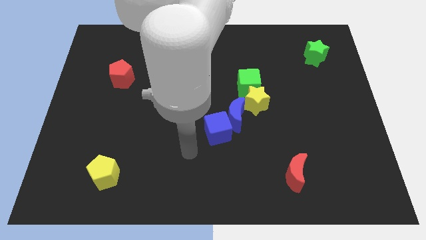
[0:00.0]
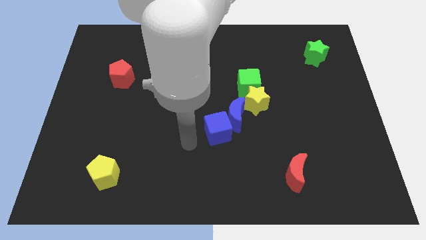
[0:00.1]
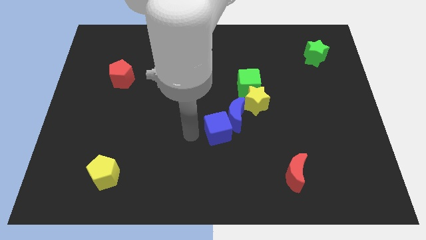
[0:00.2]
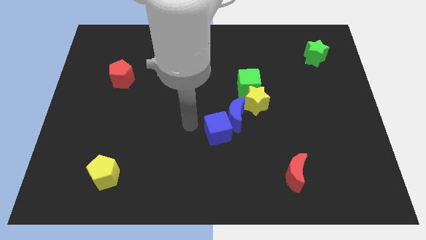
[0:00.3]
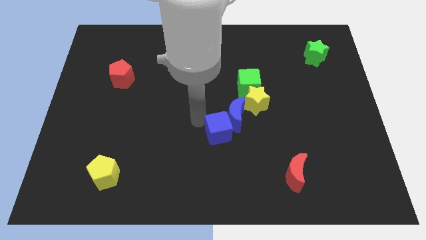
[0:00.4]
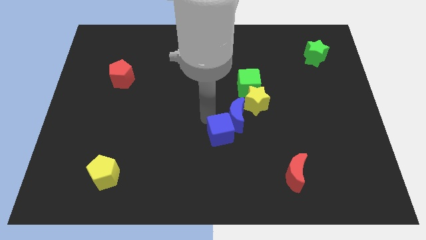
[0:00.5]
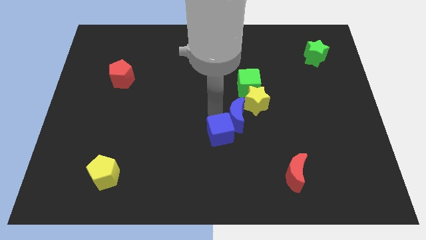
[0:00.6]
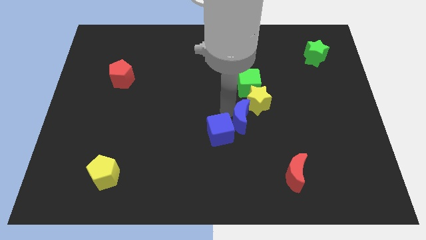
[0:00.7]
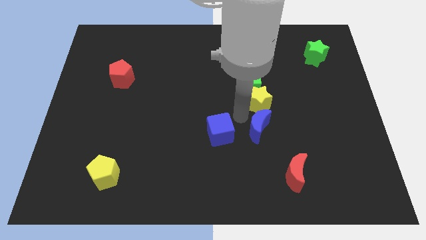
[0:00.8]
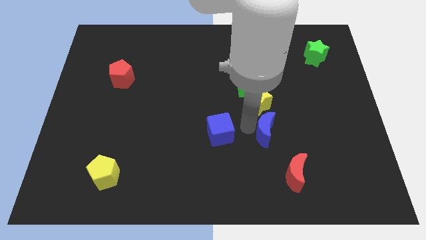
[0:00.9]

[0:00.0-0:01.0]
pull the blue cube apart from the blue moon

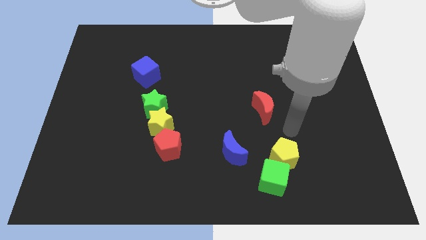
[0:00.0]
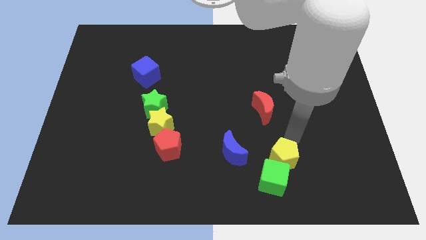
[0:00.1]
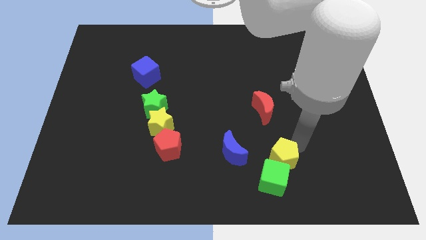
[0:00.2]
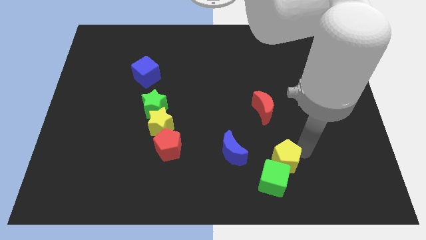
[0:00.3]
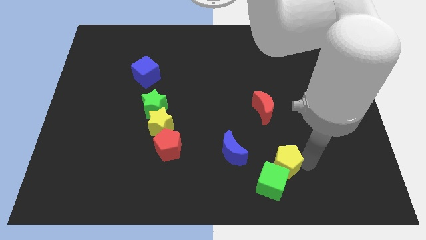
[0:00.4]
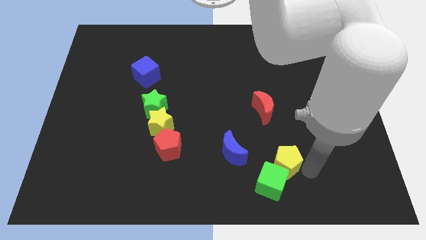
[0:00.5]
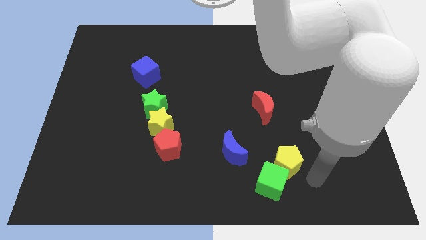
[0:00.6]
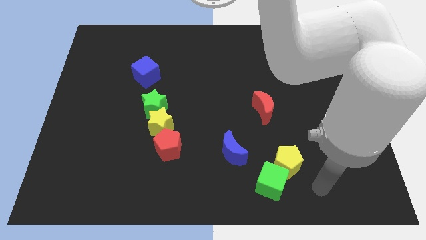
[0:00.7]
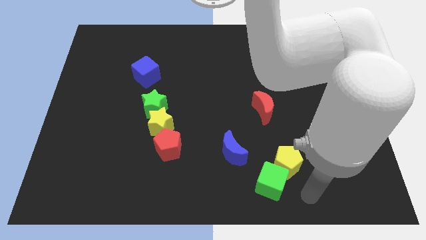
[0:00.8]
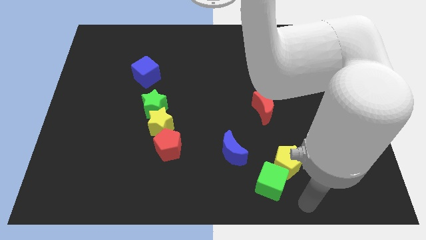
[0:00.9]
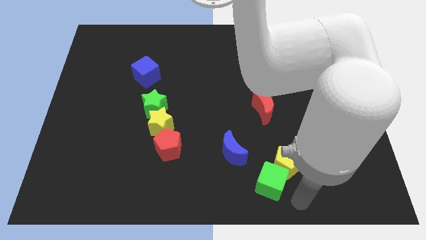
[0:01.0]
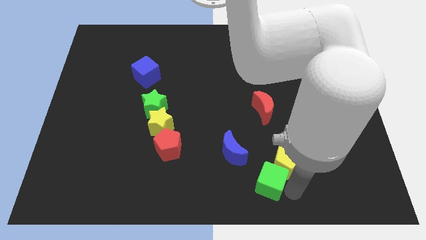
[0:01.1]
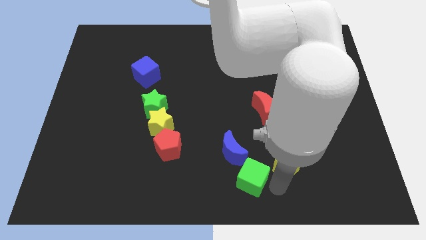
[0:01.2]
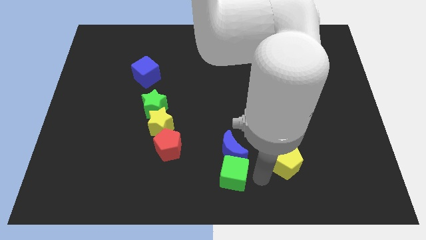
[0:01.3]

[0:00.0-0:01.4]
pull the yellow pentagon apart from the green cube

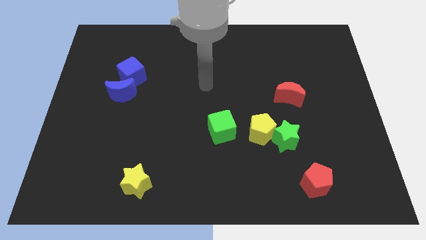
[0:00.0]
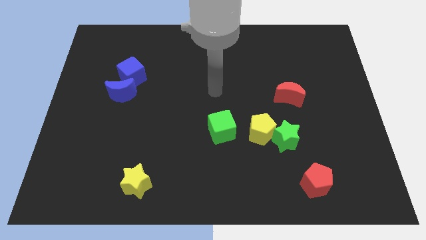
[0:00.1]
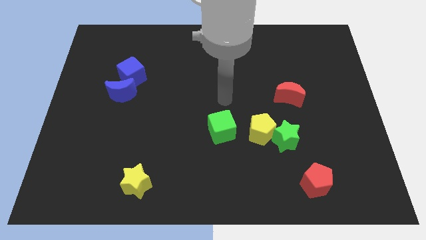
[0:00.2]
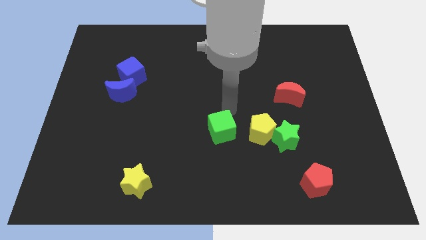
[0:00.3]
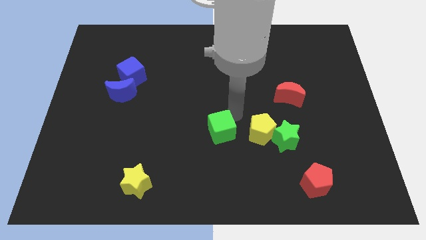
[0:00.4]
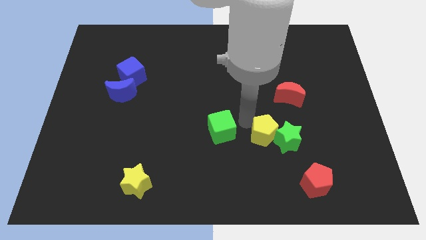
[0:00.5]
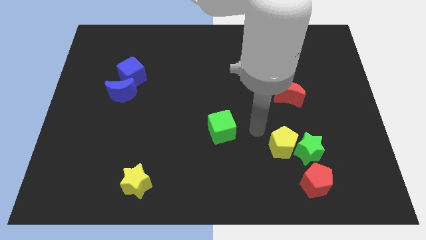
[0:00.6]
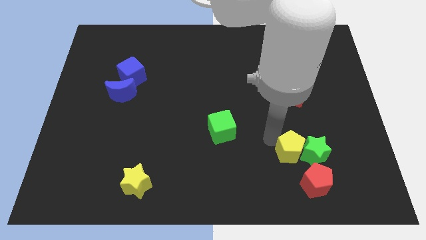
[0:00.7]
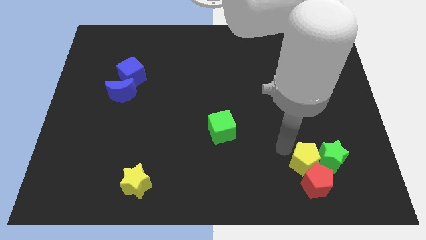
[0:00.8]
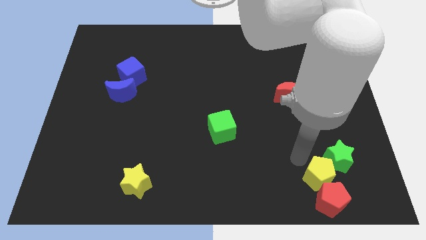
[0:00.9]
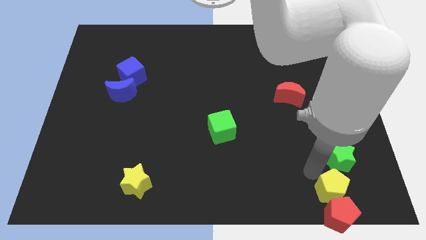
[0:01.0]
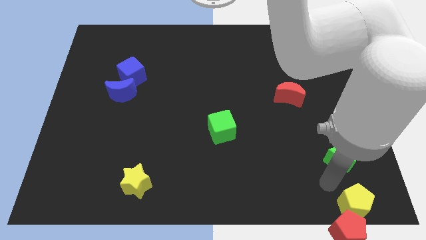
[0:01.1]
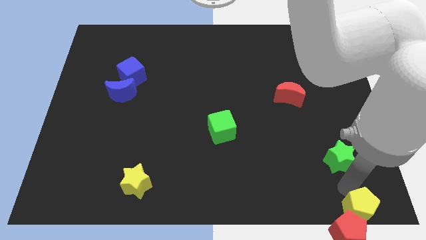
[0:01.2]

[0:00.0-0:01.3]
pull the green star apart from the yellow pentagon

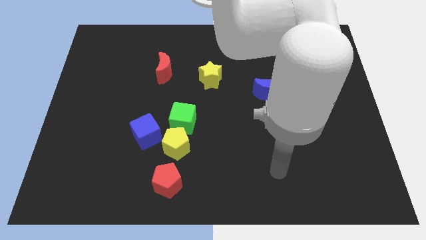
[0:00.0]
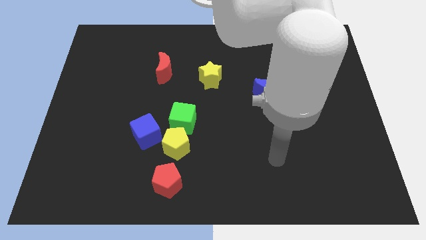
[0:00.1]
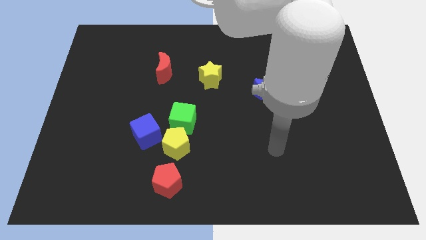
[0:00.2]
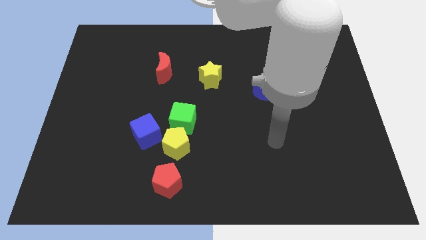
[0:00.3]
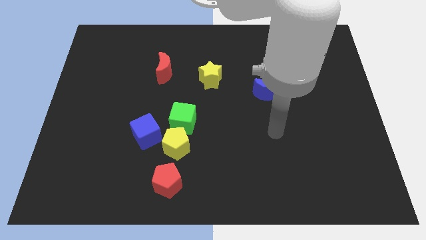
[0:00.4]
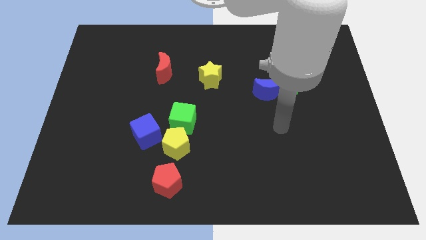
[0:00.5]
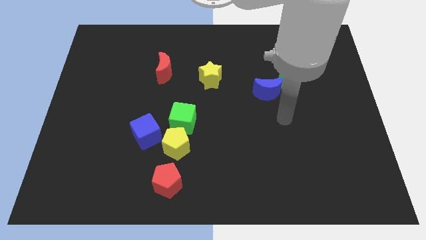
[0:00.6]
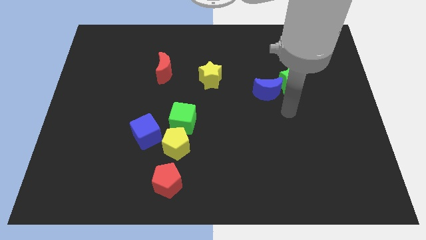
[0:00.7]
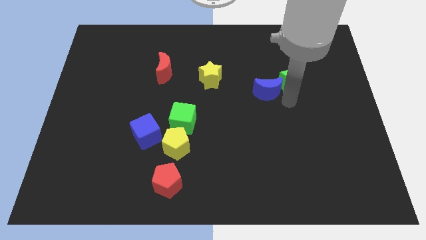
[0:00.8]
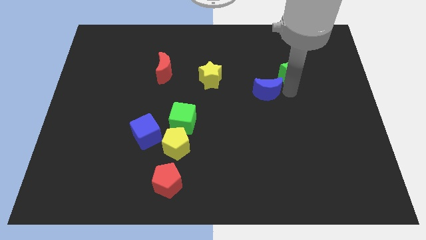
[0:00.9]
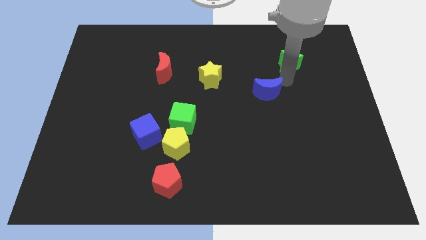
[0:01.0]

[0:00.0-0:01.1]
move the blue moon away from the green star

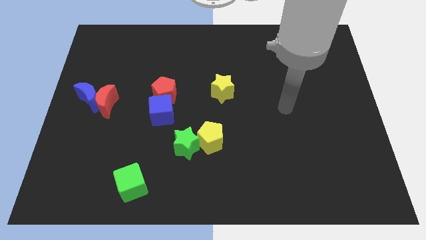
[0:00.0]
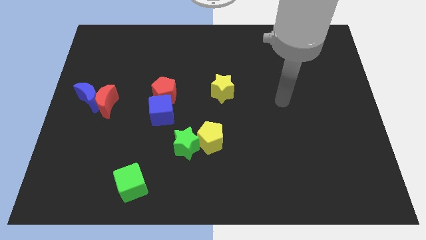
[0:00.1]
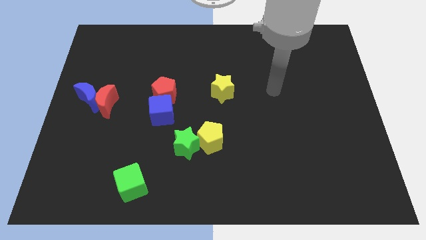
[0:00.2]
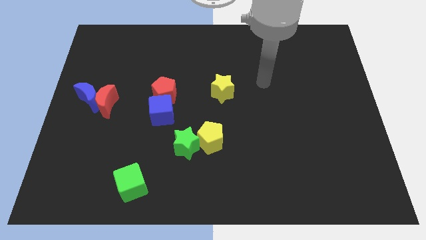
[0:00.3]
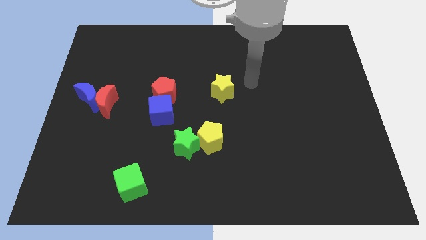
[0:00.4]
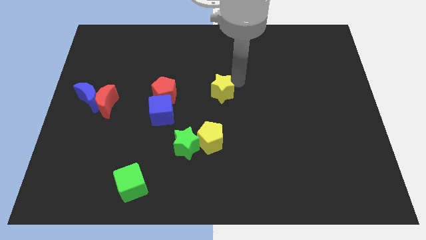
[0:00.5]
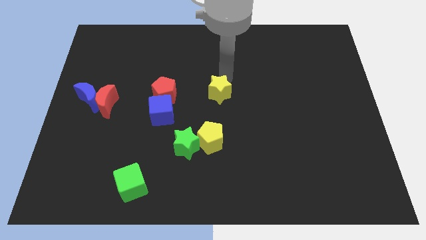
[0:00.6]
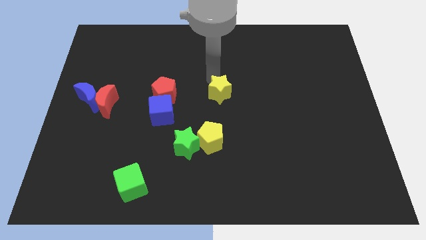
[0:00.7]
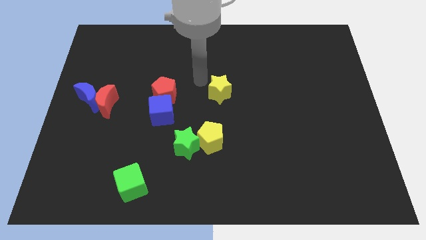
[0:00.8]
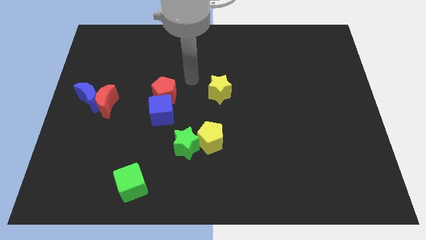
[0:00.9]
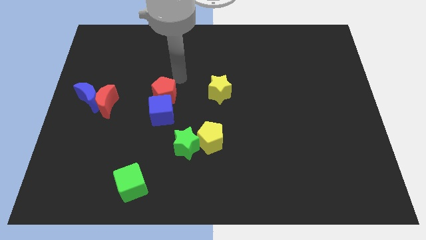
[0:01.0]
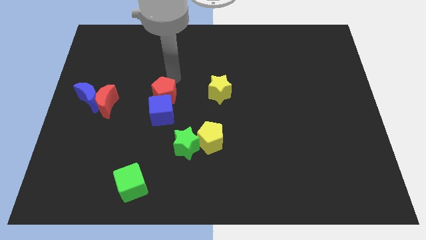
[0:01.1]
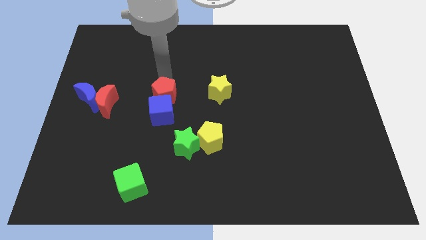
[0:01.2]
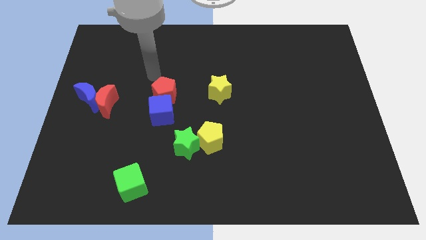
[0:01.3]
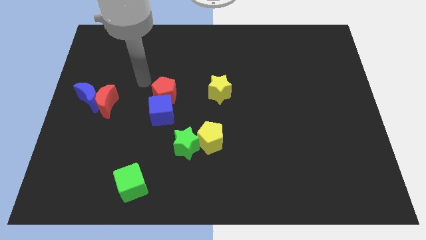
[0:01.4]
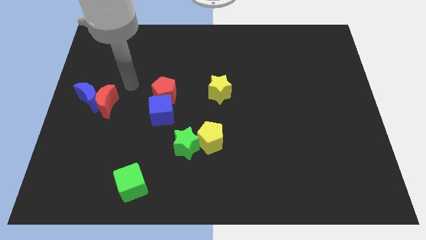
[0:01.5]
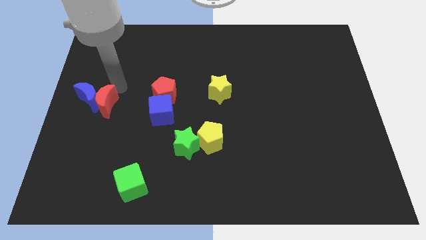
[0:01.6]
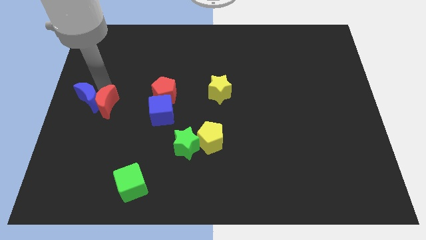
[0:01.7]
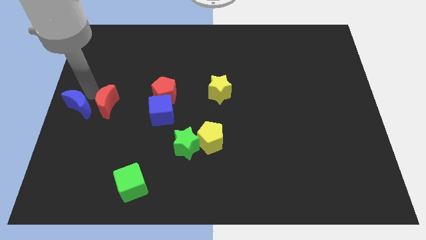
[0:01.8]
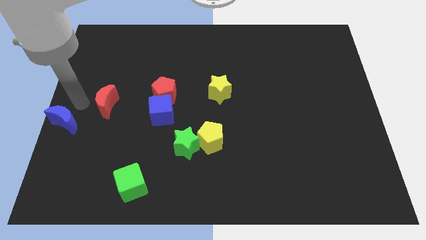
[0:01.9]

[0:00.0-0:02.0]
pull the red moon apart from the blue moon

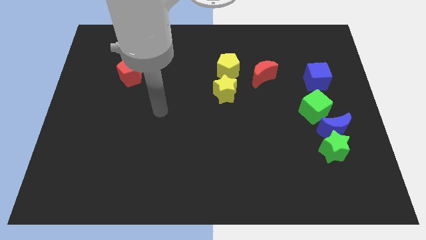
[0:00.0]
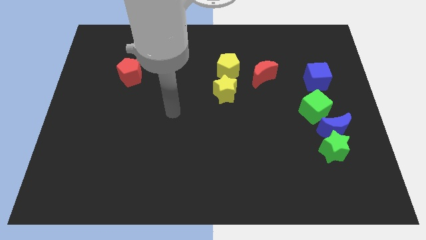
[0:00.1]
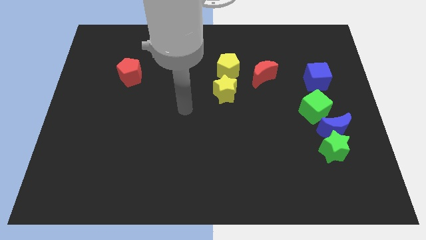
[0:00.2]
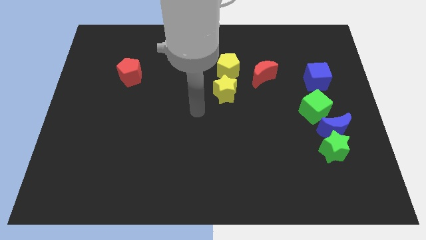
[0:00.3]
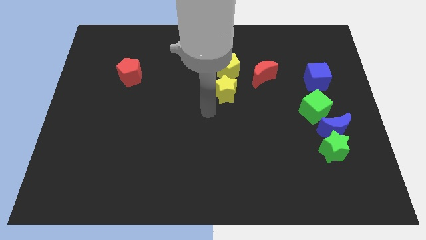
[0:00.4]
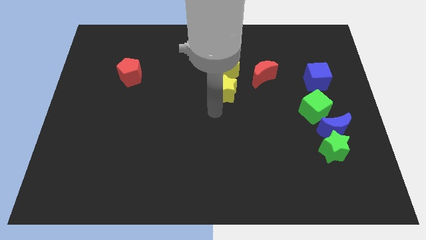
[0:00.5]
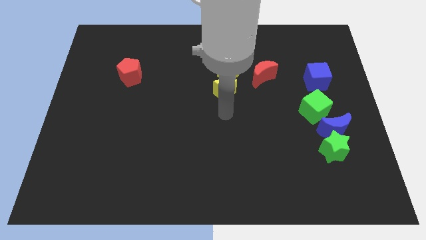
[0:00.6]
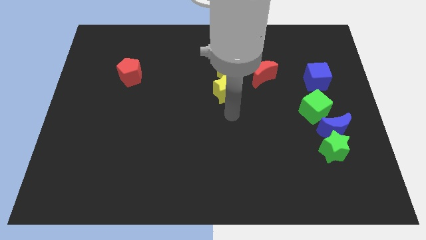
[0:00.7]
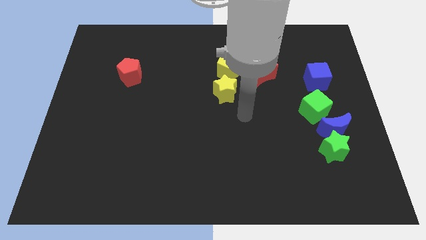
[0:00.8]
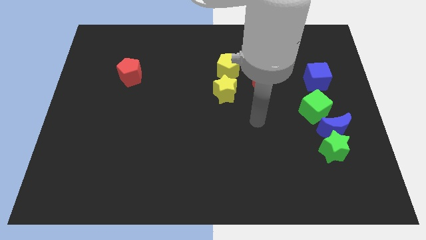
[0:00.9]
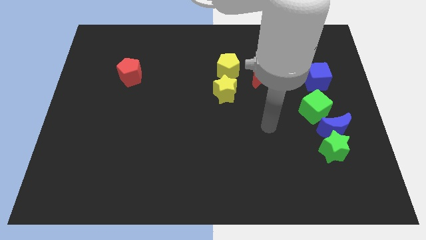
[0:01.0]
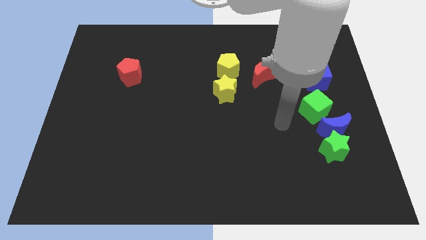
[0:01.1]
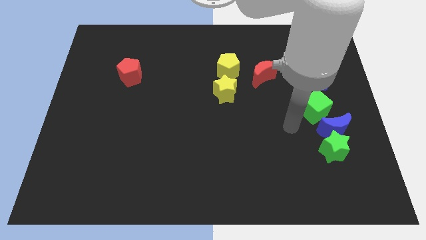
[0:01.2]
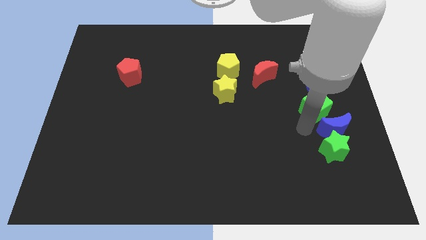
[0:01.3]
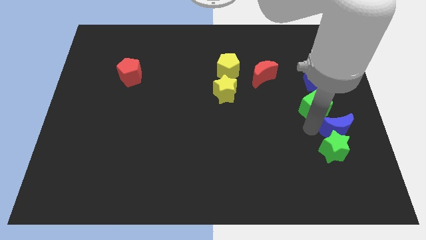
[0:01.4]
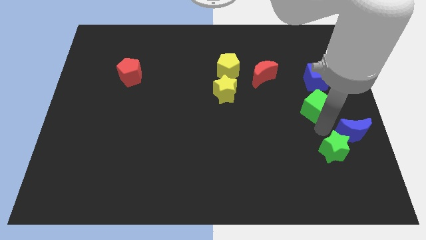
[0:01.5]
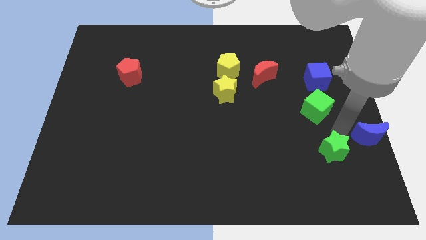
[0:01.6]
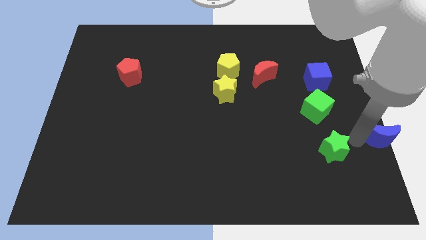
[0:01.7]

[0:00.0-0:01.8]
pull the green star apart from the blue moon

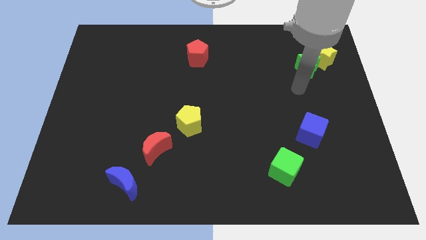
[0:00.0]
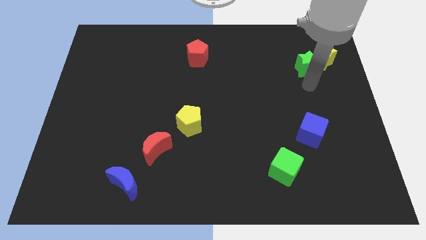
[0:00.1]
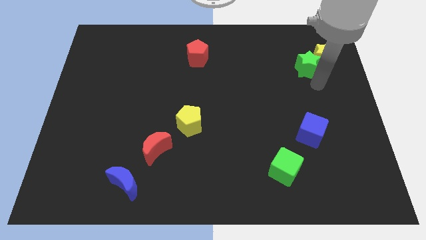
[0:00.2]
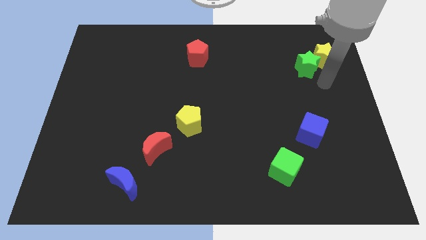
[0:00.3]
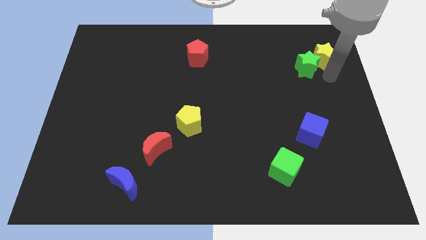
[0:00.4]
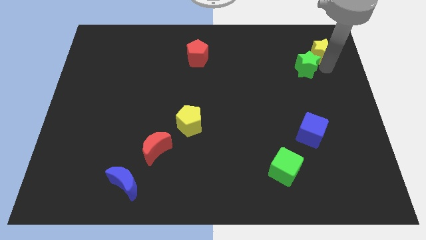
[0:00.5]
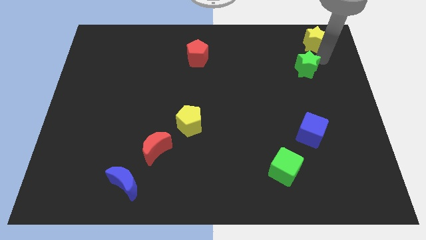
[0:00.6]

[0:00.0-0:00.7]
separate the green star from the yellow star

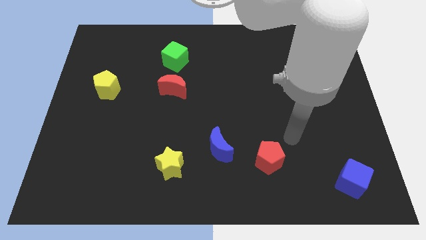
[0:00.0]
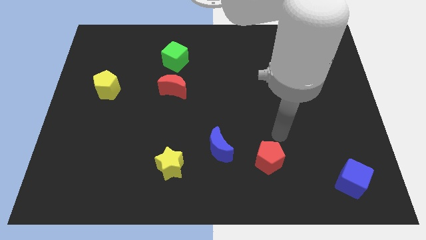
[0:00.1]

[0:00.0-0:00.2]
move the red moon away from the green cube
